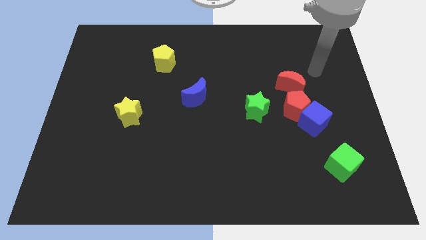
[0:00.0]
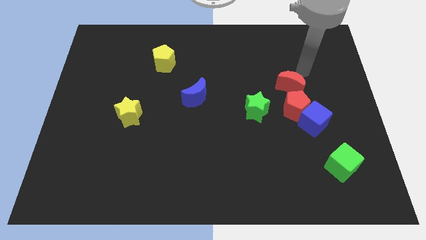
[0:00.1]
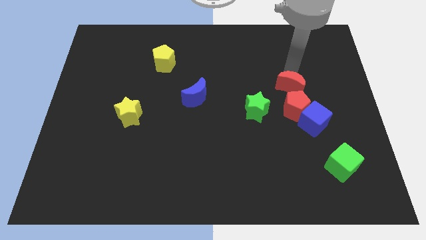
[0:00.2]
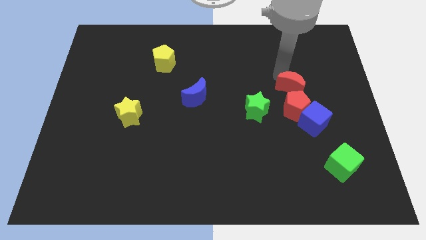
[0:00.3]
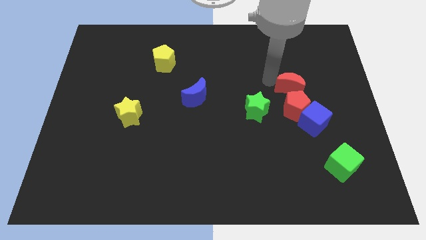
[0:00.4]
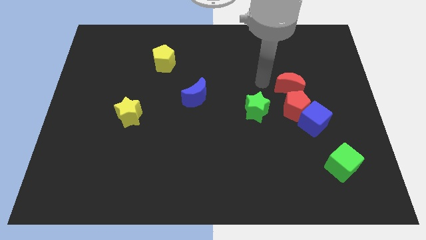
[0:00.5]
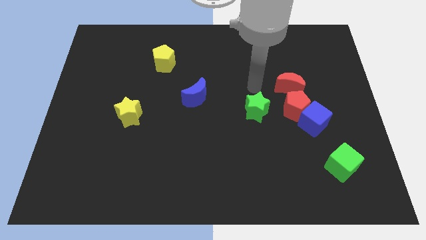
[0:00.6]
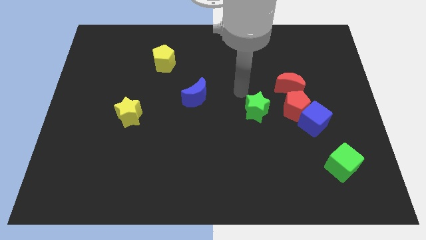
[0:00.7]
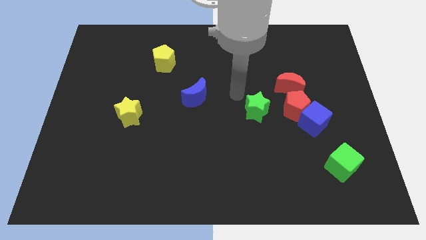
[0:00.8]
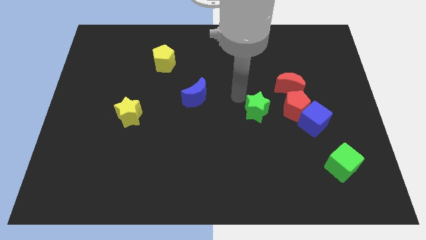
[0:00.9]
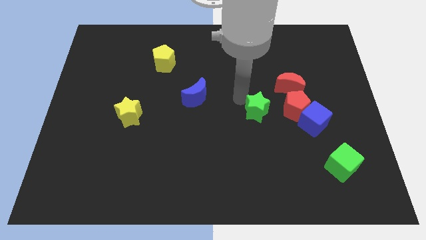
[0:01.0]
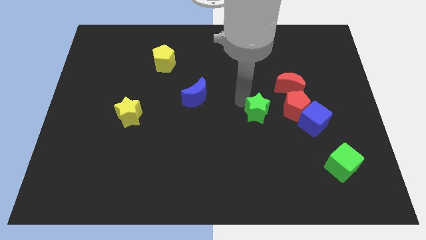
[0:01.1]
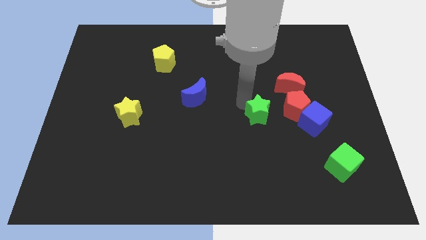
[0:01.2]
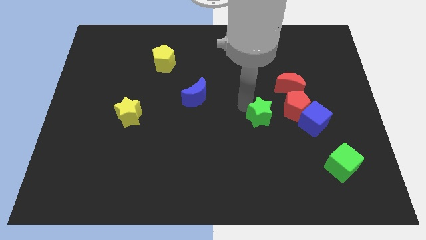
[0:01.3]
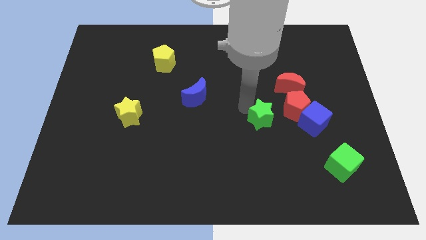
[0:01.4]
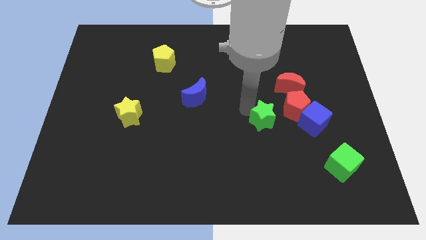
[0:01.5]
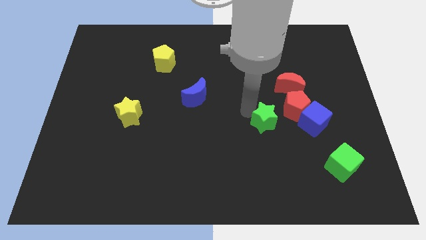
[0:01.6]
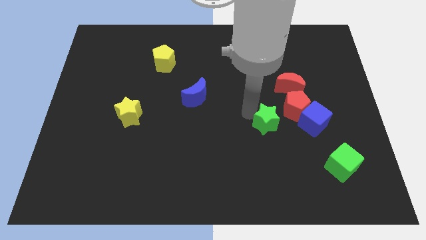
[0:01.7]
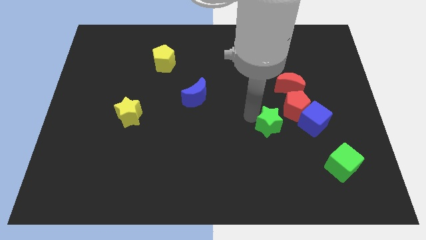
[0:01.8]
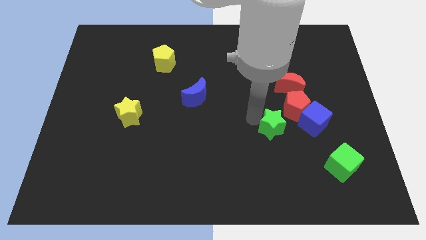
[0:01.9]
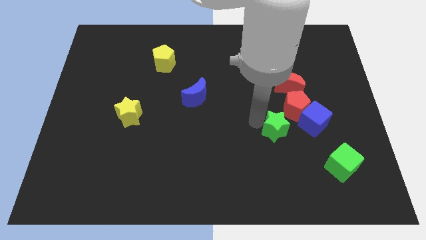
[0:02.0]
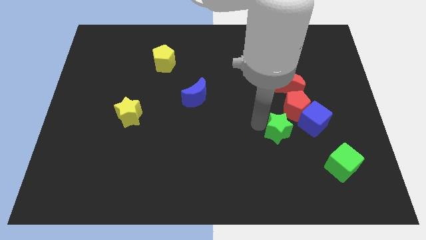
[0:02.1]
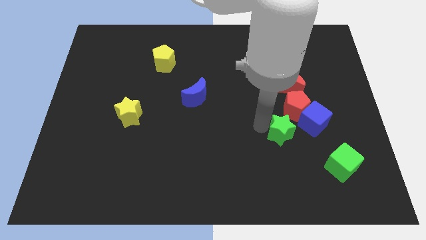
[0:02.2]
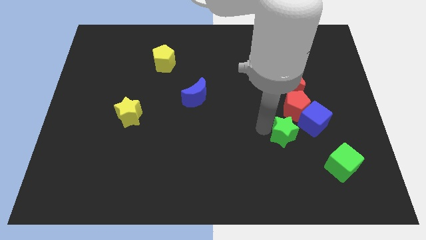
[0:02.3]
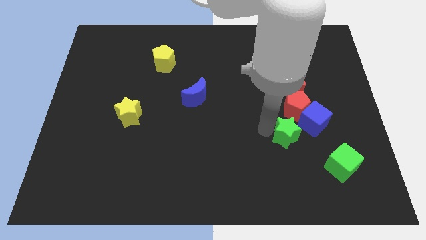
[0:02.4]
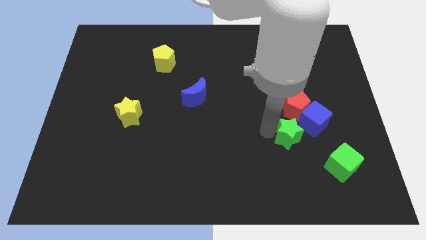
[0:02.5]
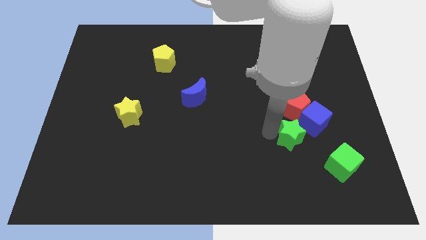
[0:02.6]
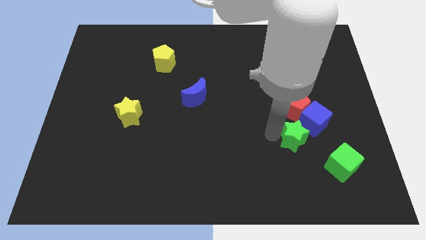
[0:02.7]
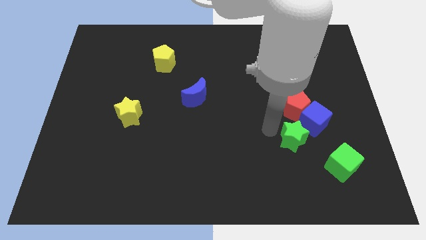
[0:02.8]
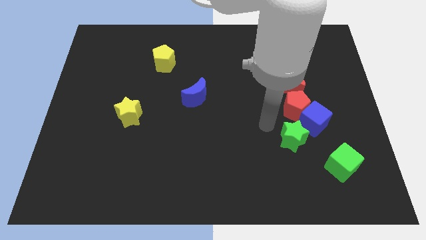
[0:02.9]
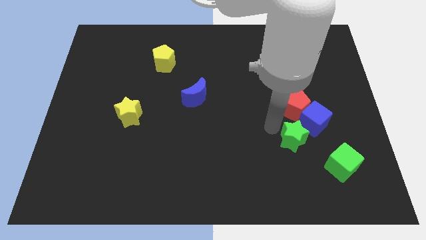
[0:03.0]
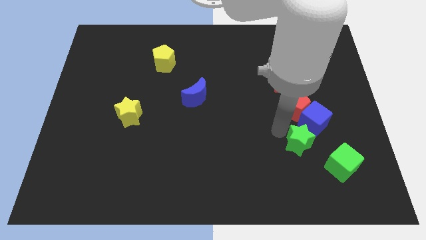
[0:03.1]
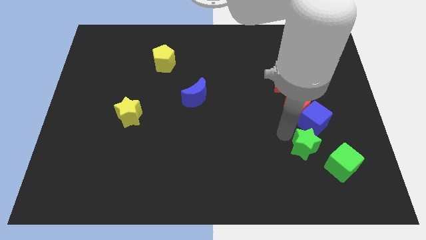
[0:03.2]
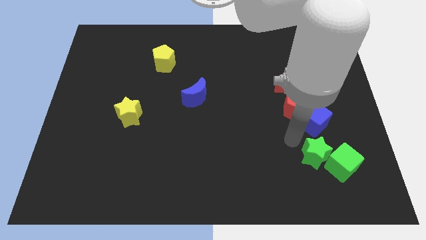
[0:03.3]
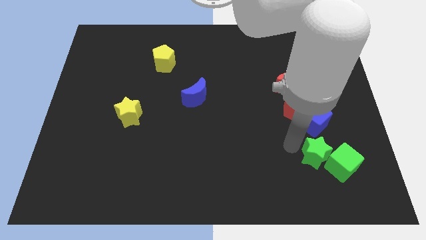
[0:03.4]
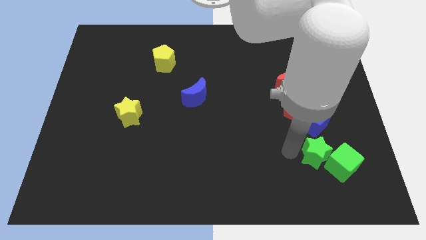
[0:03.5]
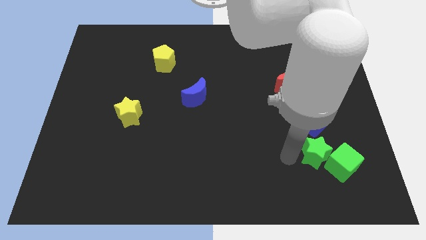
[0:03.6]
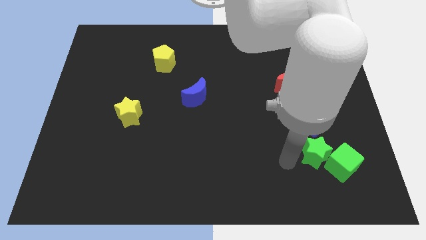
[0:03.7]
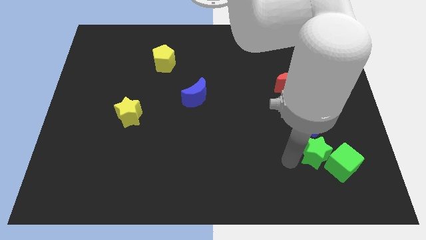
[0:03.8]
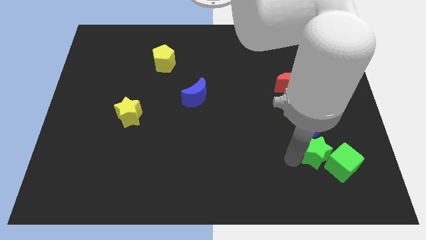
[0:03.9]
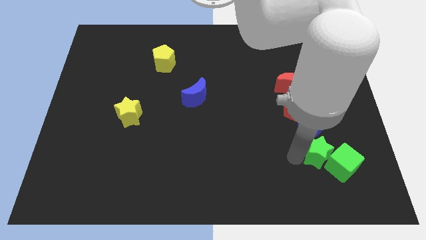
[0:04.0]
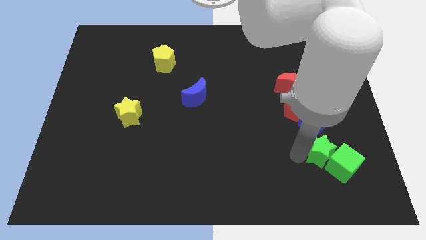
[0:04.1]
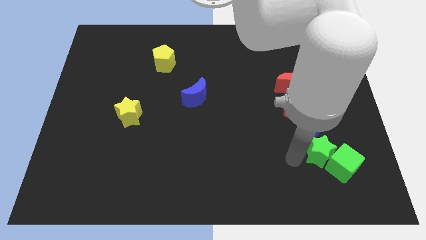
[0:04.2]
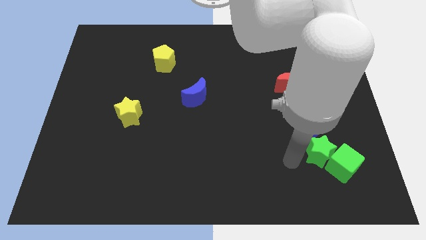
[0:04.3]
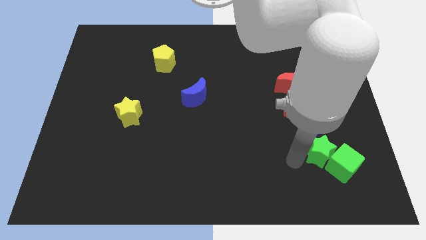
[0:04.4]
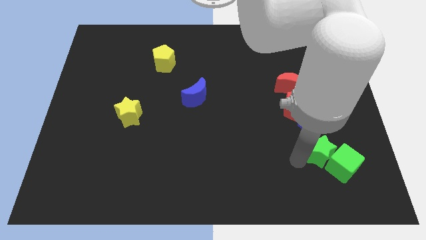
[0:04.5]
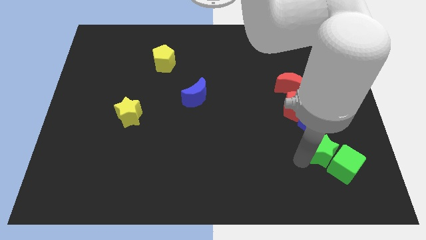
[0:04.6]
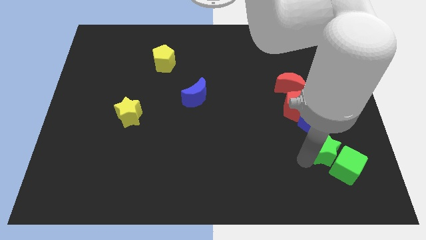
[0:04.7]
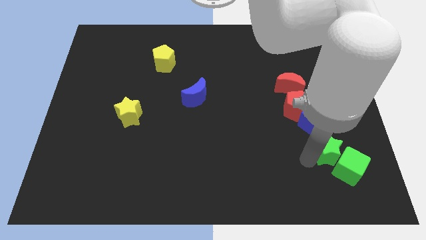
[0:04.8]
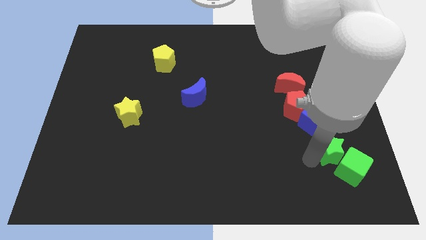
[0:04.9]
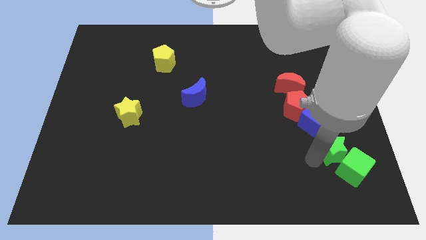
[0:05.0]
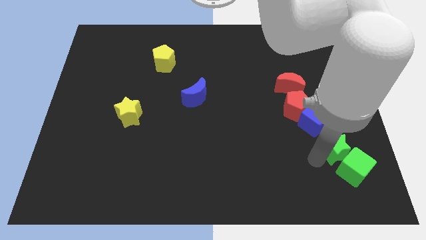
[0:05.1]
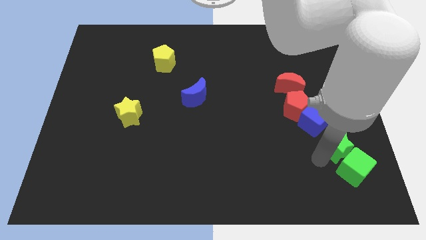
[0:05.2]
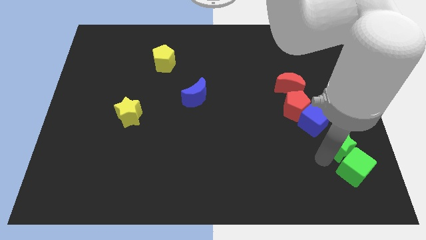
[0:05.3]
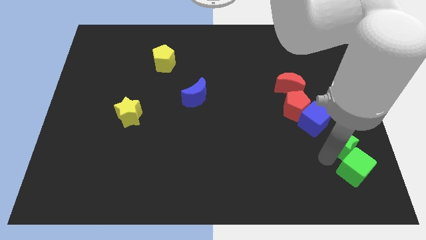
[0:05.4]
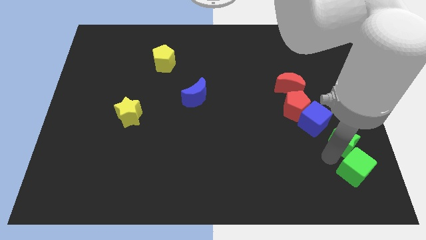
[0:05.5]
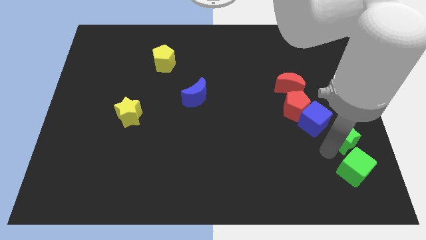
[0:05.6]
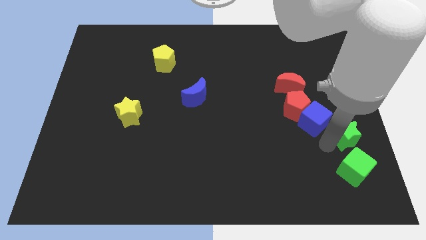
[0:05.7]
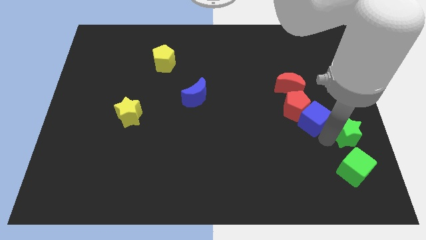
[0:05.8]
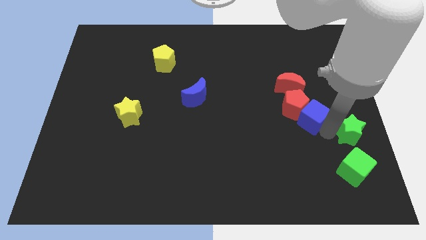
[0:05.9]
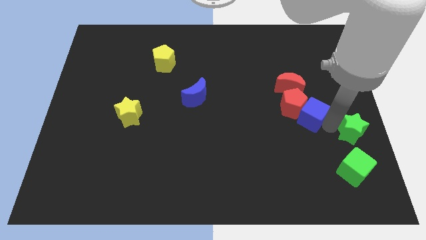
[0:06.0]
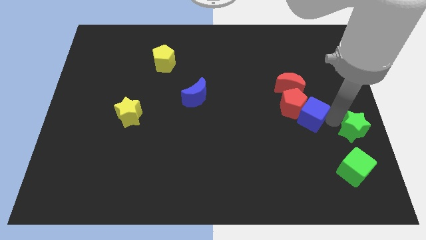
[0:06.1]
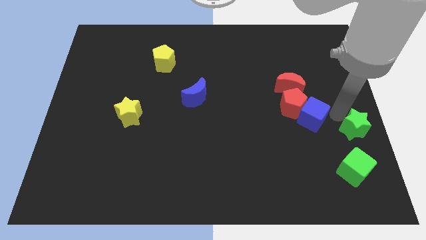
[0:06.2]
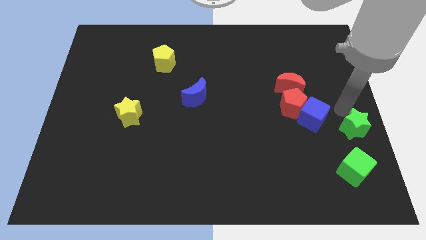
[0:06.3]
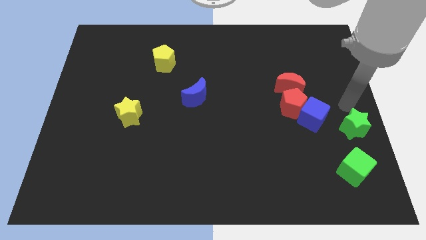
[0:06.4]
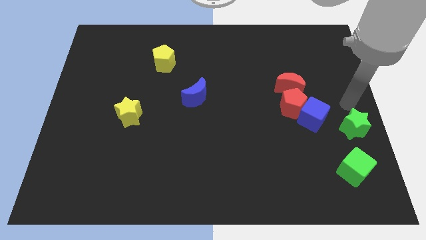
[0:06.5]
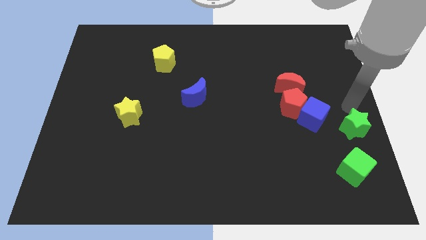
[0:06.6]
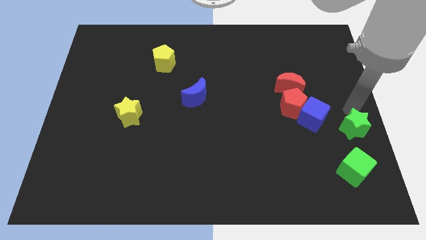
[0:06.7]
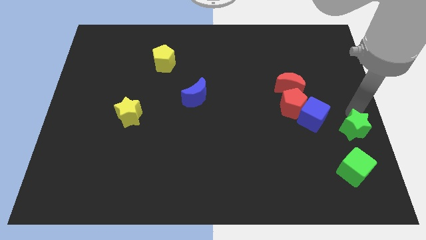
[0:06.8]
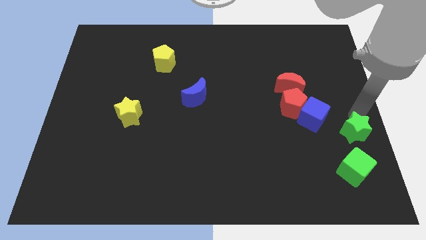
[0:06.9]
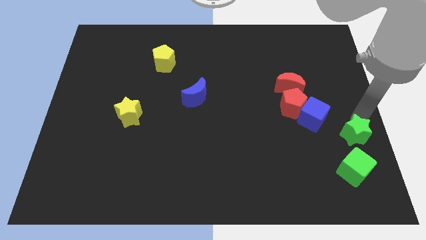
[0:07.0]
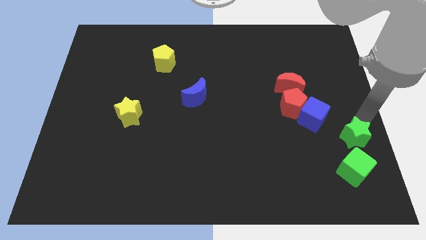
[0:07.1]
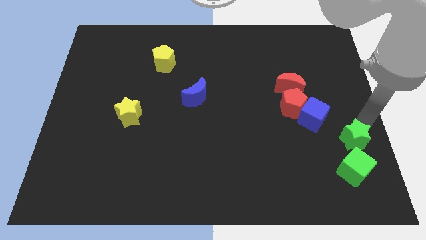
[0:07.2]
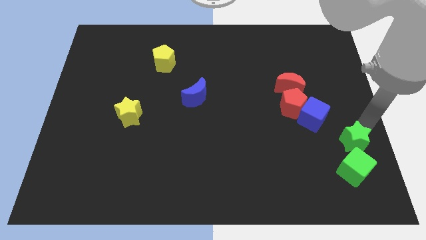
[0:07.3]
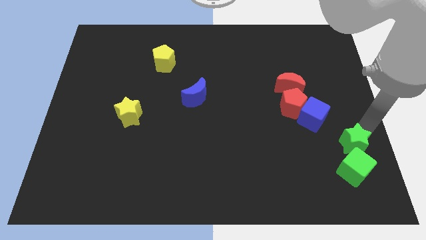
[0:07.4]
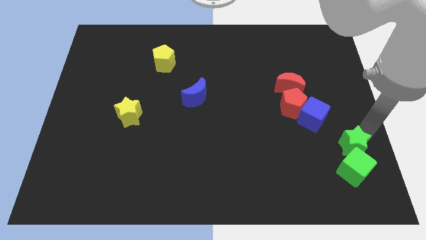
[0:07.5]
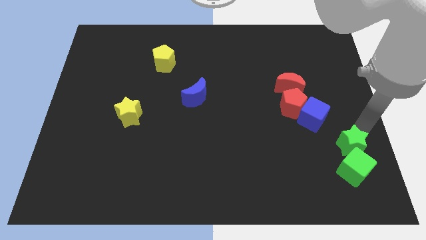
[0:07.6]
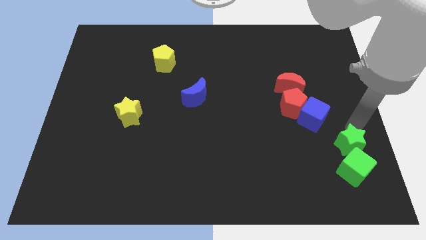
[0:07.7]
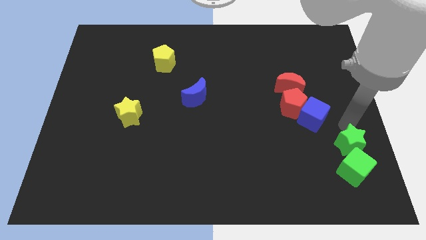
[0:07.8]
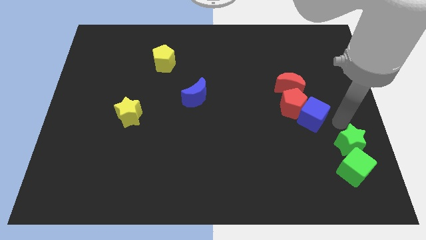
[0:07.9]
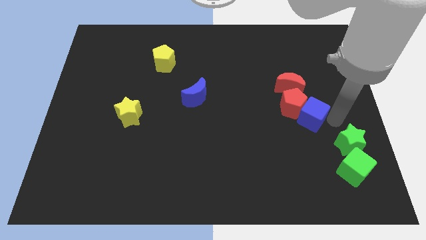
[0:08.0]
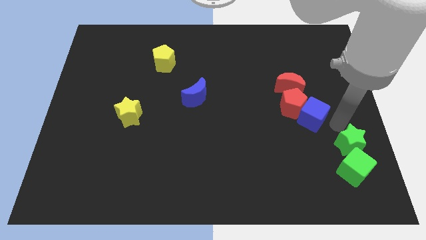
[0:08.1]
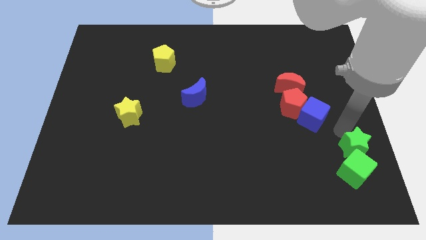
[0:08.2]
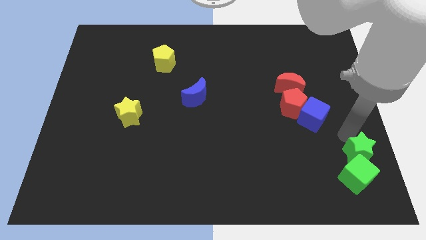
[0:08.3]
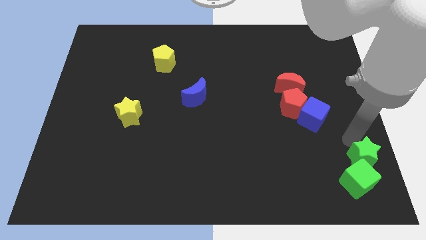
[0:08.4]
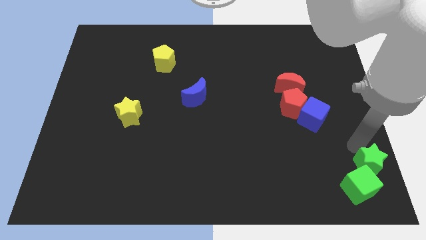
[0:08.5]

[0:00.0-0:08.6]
push the green star to the bottom right corner
